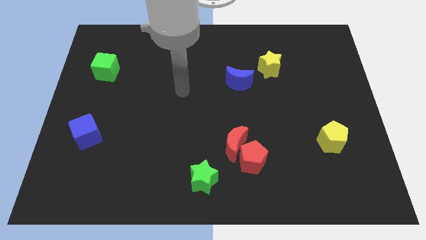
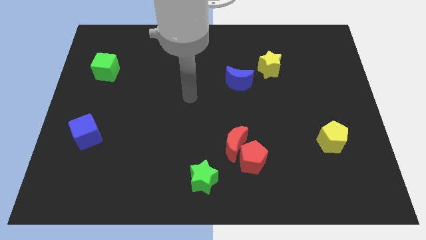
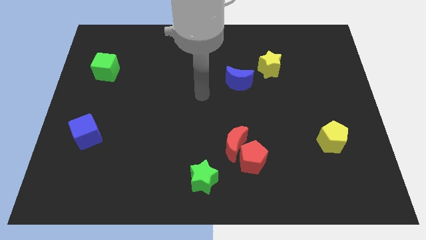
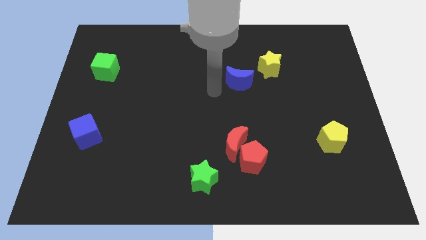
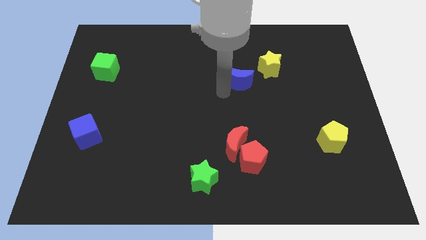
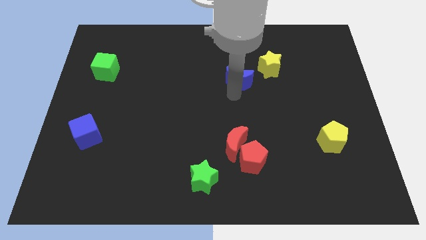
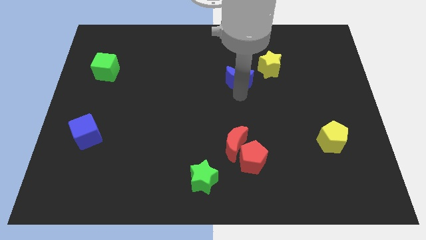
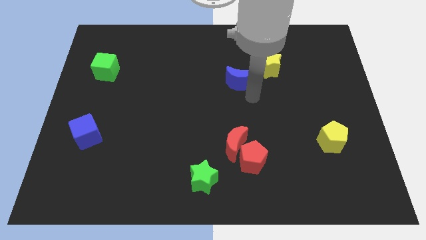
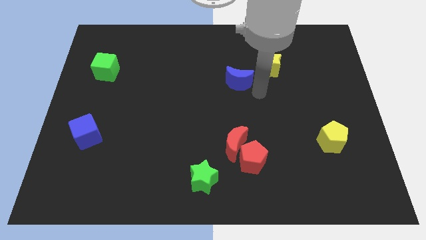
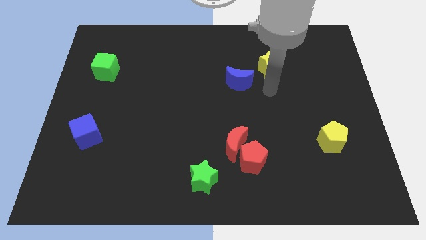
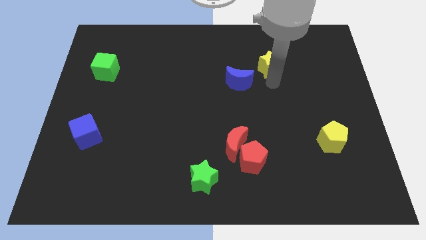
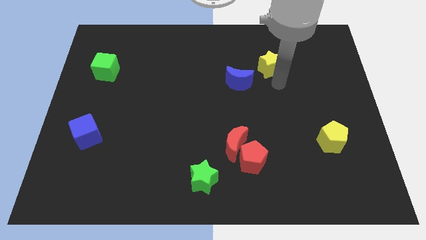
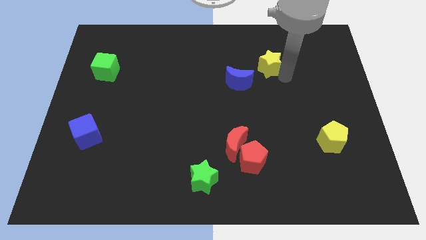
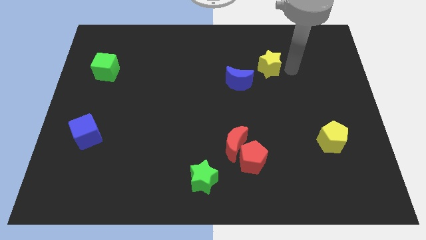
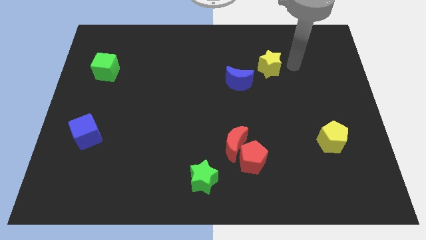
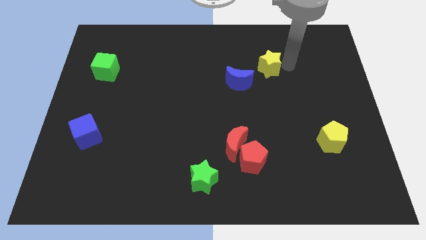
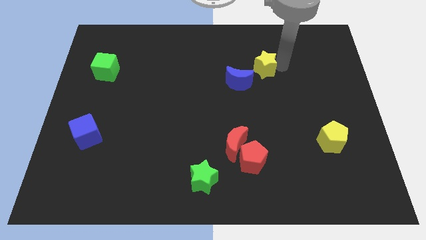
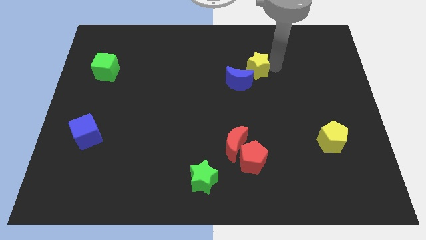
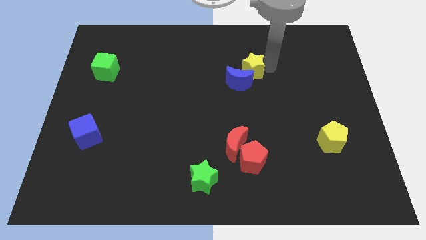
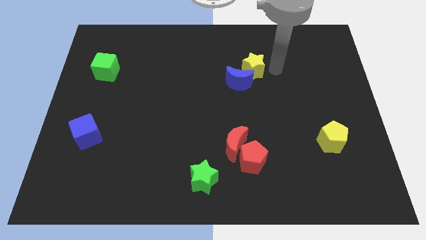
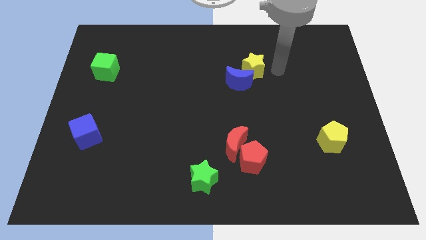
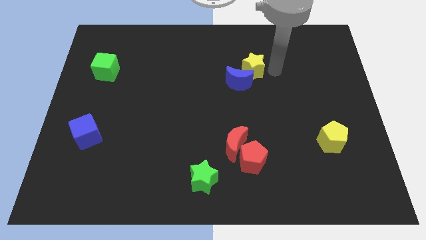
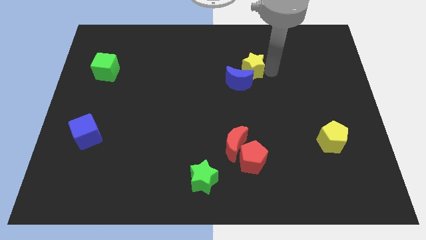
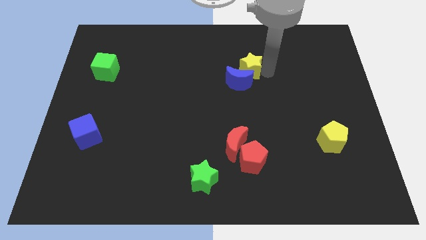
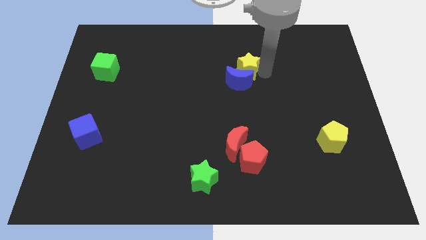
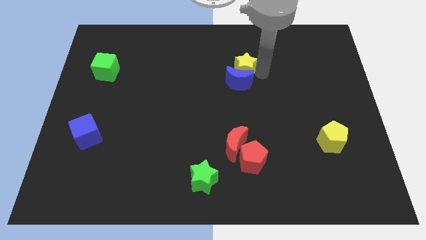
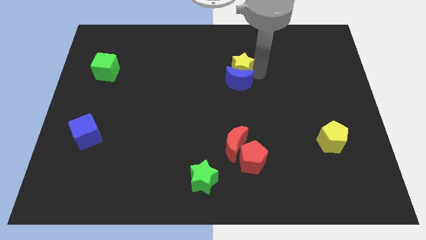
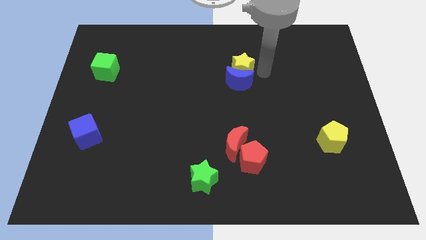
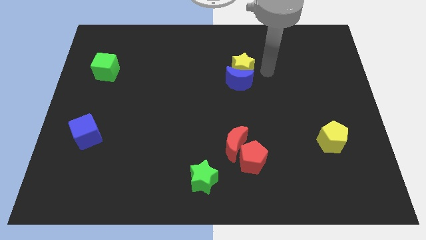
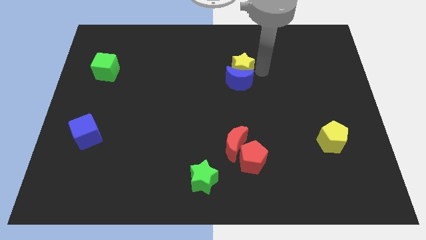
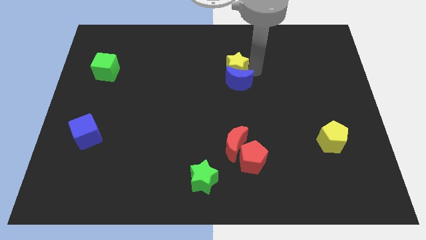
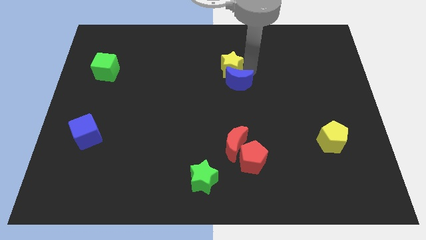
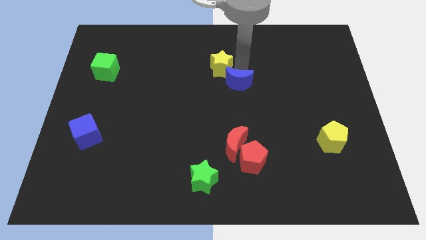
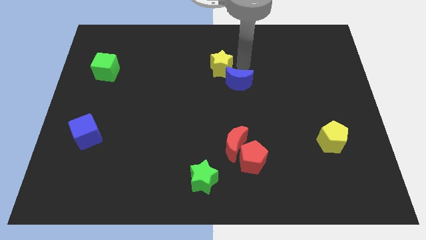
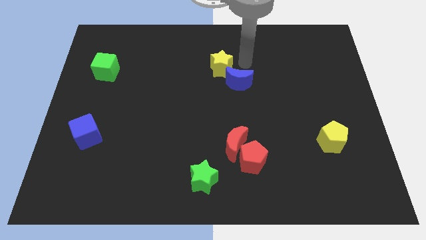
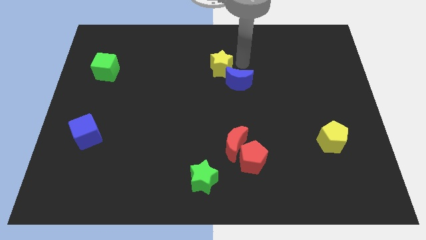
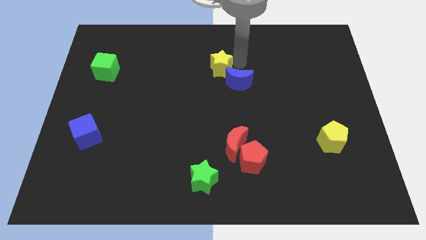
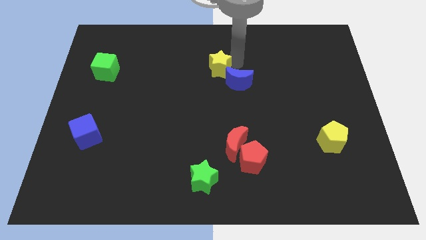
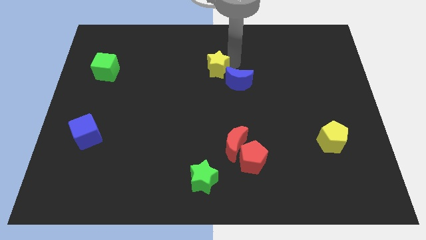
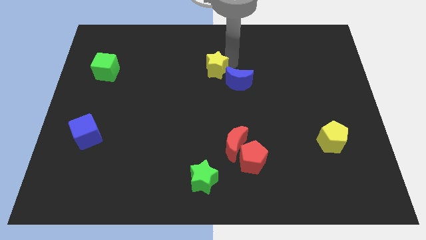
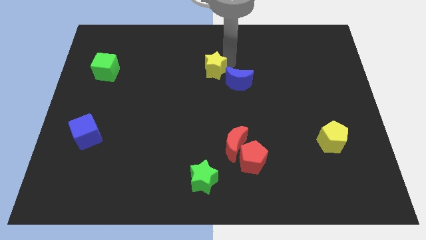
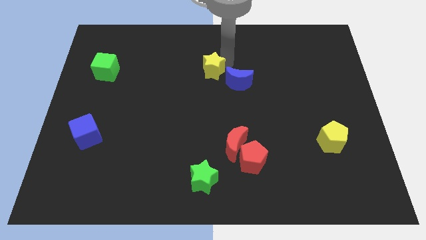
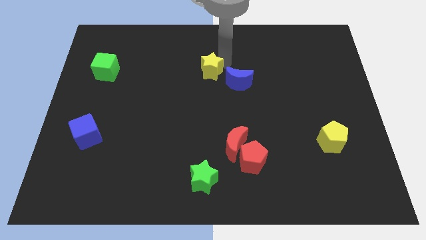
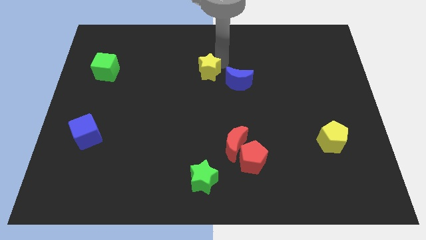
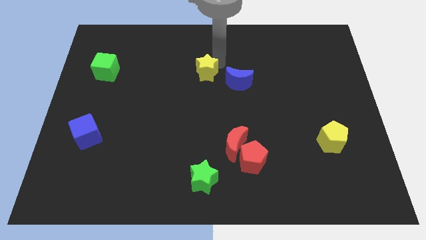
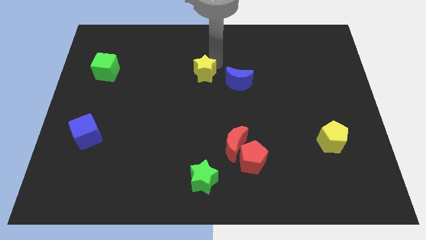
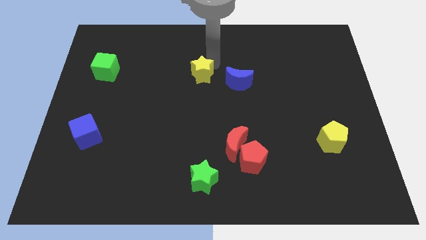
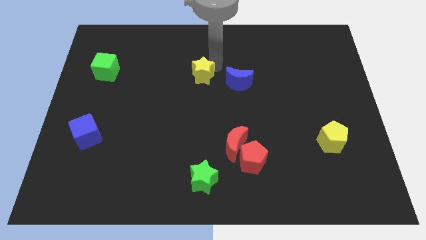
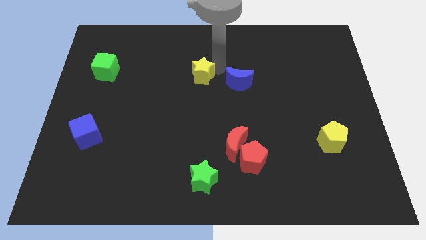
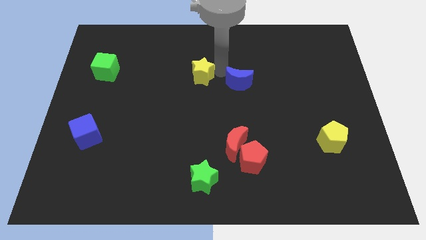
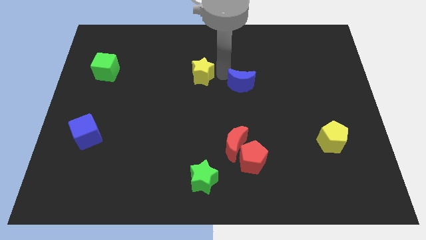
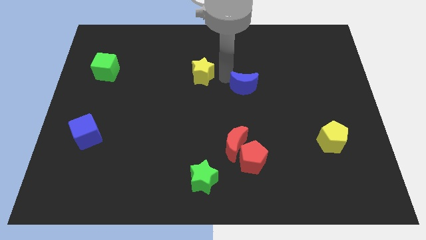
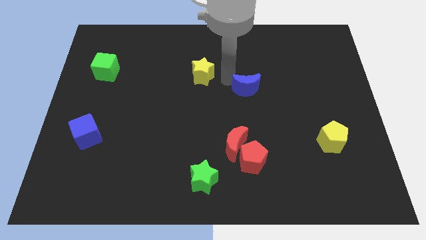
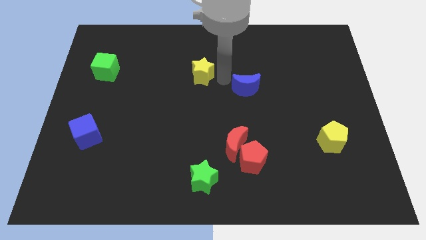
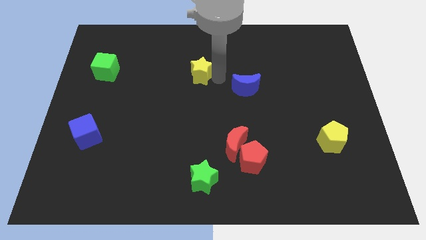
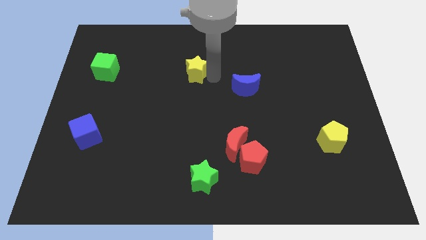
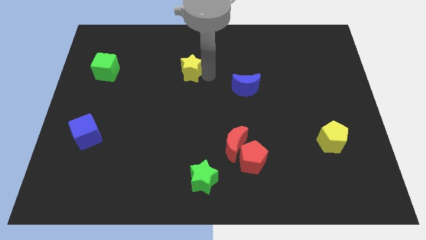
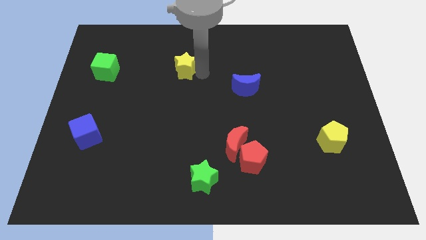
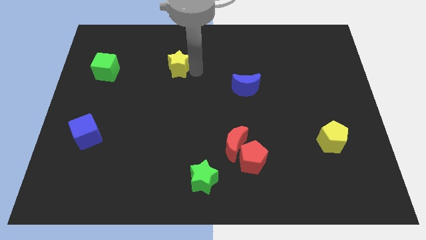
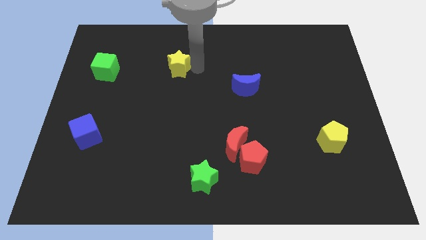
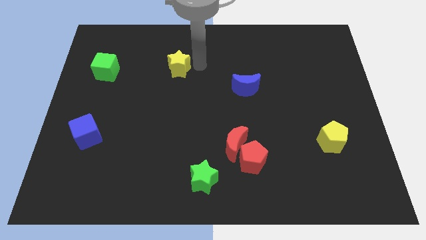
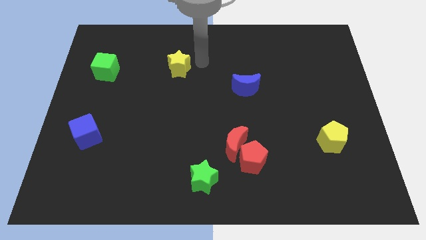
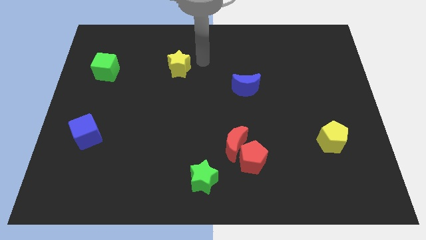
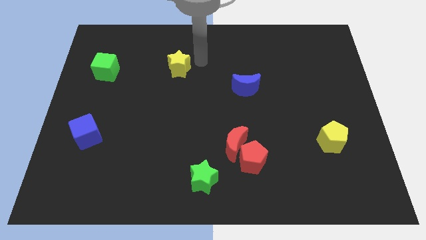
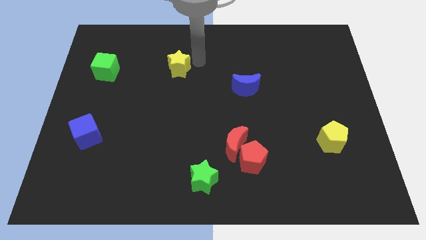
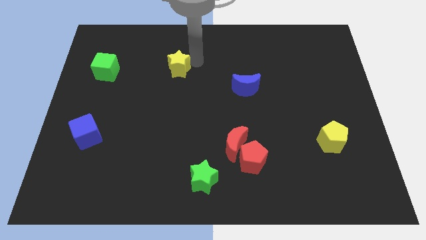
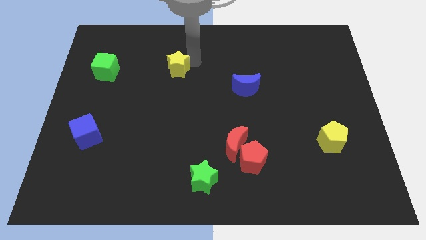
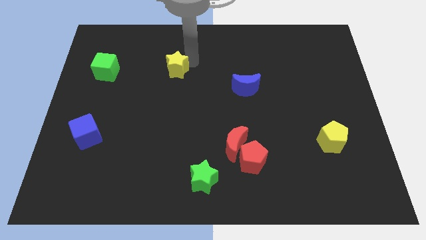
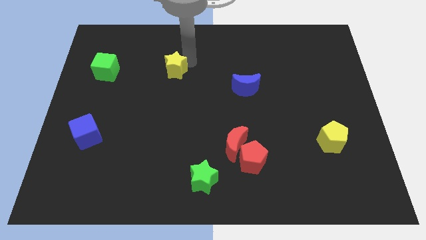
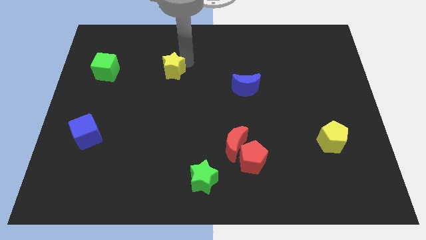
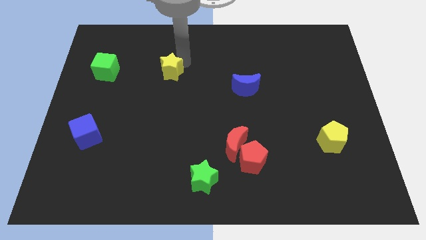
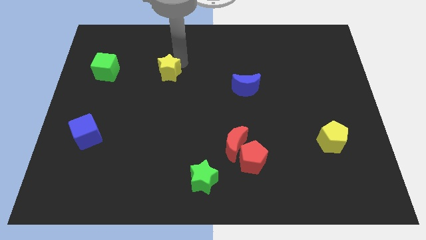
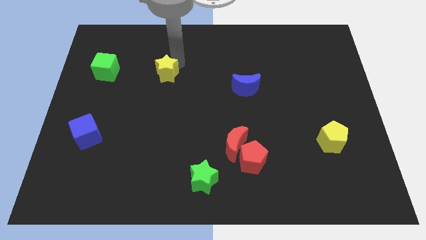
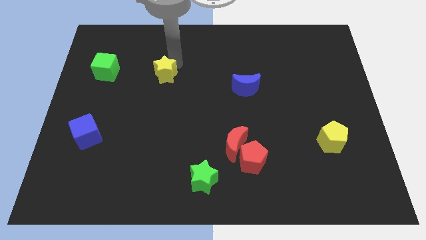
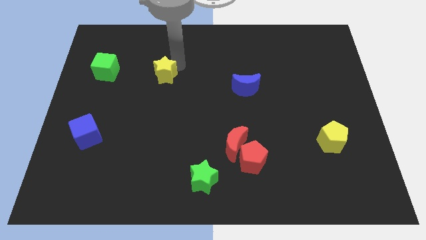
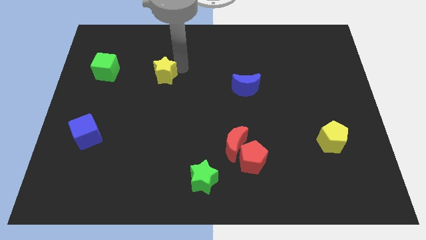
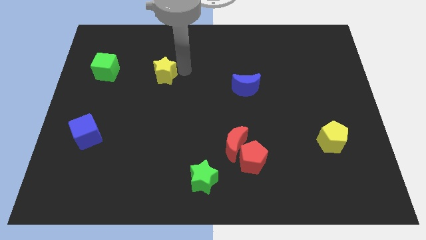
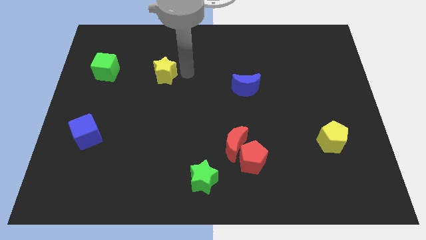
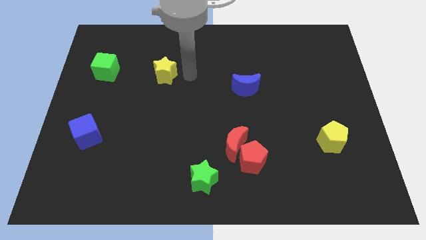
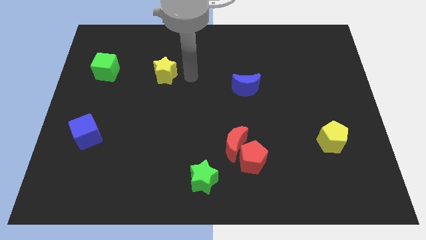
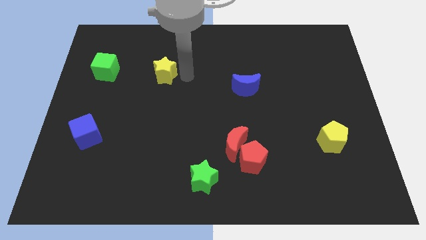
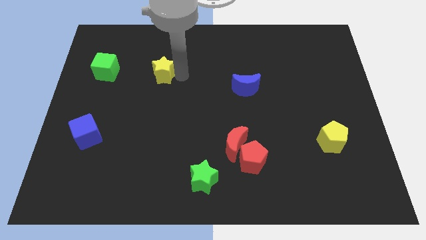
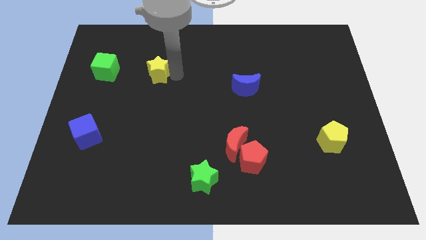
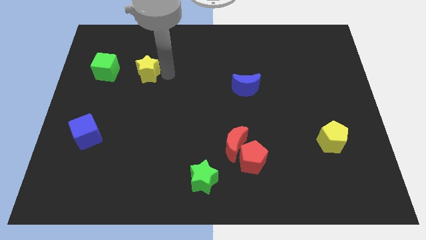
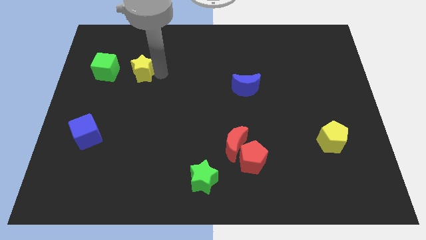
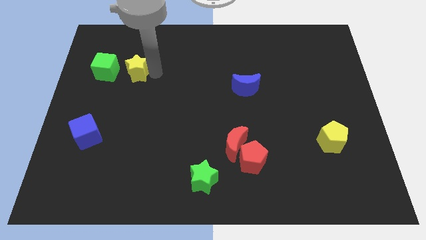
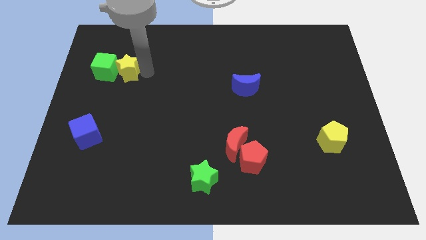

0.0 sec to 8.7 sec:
push the yellow star close to the green cube
